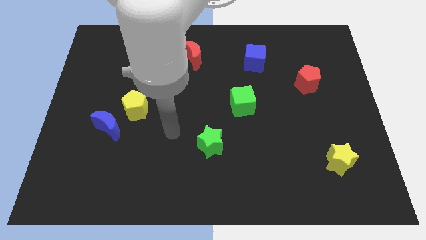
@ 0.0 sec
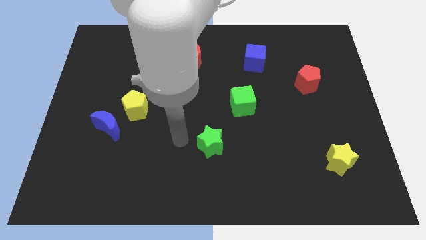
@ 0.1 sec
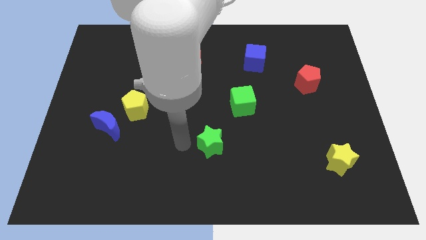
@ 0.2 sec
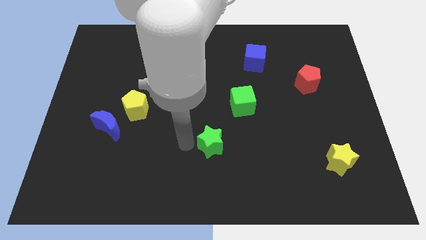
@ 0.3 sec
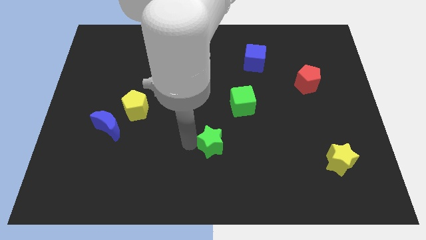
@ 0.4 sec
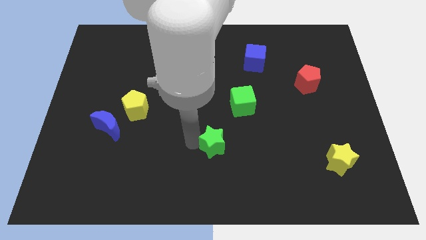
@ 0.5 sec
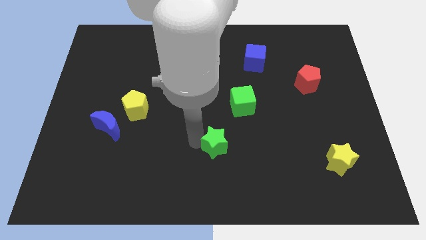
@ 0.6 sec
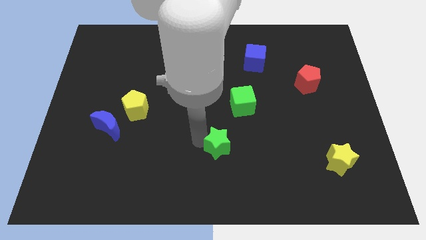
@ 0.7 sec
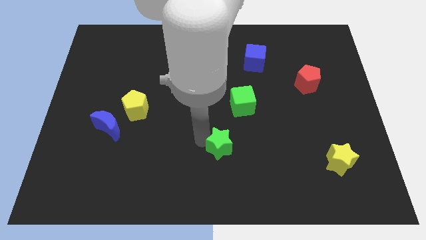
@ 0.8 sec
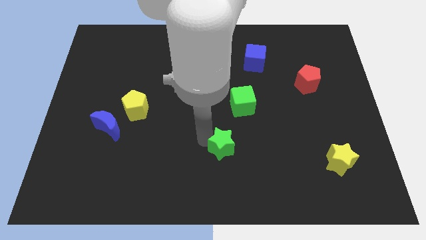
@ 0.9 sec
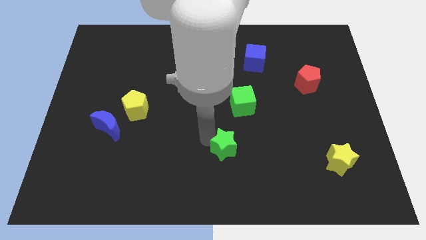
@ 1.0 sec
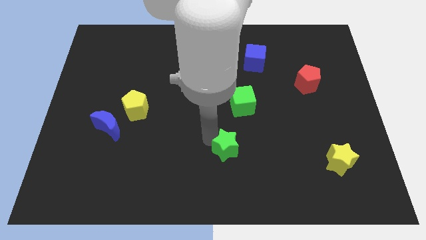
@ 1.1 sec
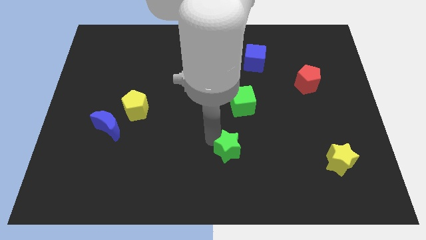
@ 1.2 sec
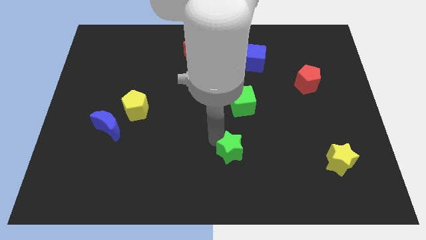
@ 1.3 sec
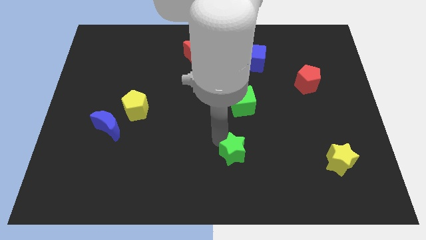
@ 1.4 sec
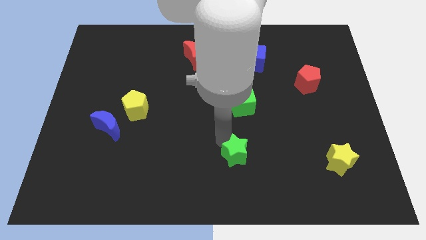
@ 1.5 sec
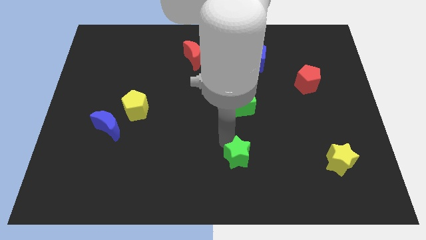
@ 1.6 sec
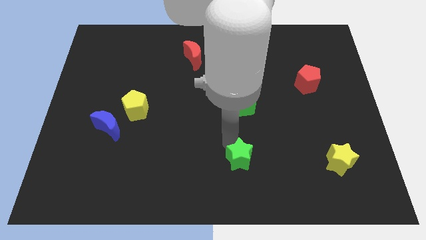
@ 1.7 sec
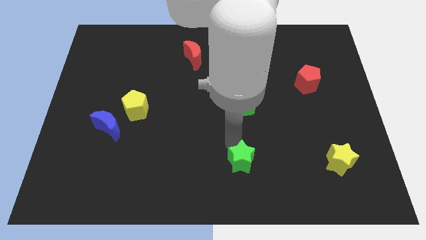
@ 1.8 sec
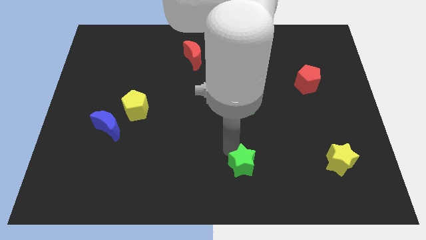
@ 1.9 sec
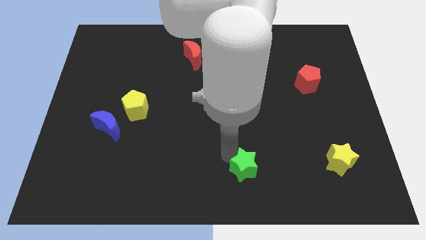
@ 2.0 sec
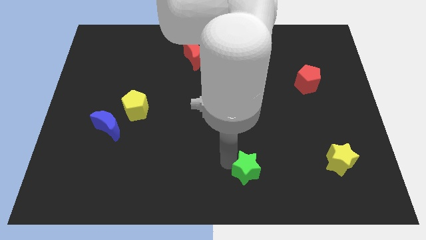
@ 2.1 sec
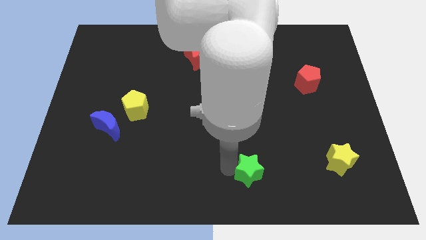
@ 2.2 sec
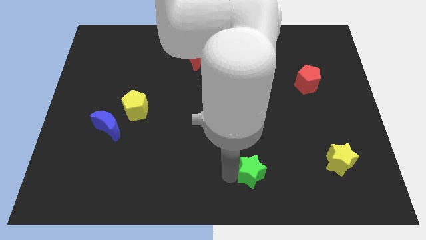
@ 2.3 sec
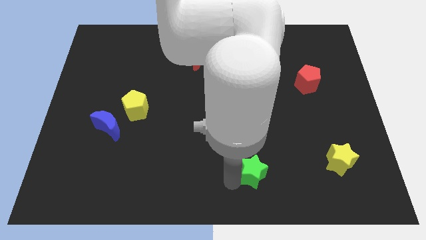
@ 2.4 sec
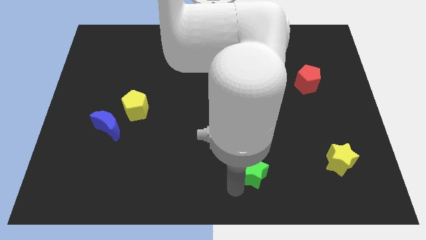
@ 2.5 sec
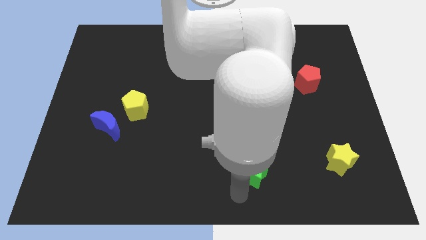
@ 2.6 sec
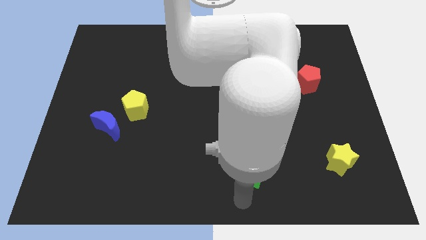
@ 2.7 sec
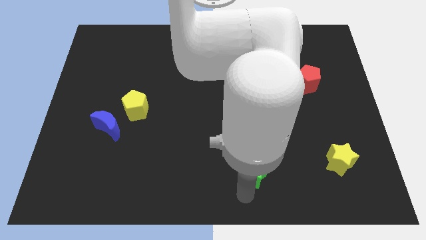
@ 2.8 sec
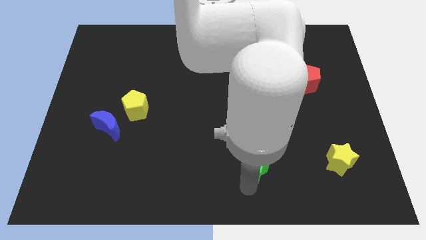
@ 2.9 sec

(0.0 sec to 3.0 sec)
push the green star somewhat to the right

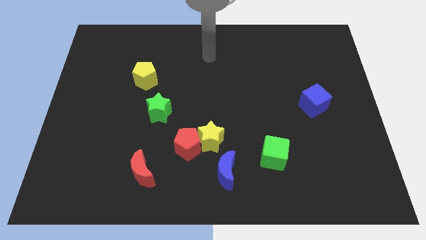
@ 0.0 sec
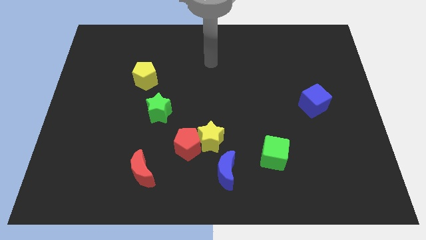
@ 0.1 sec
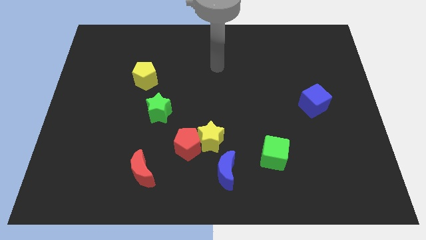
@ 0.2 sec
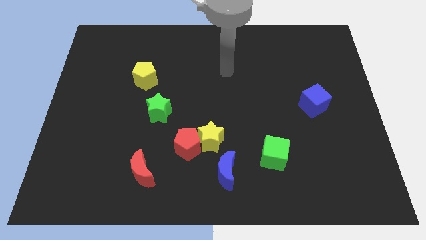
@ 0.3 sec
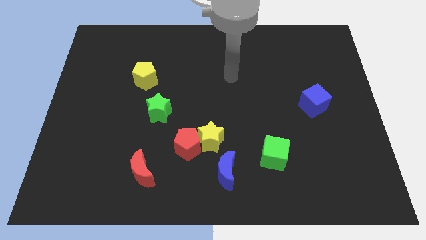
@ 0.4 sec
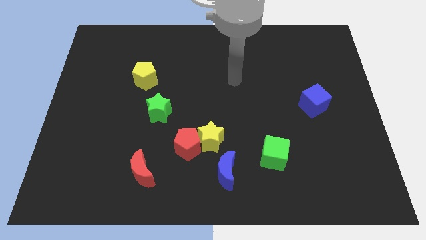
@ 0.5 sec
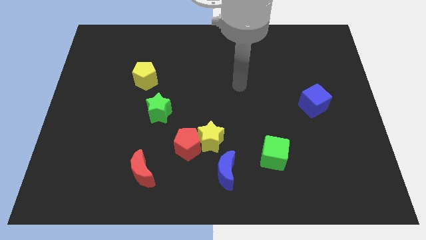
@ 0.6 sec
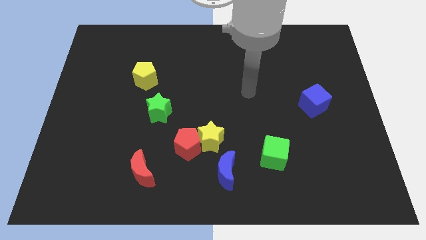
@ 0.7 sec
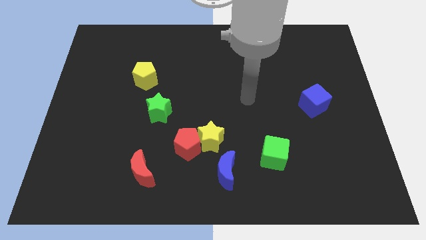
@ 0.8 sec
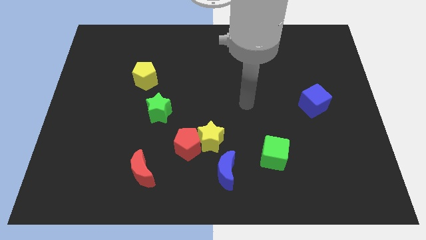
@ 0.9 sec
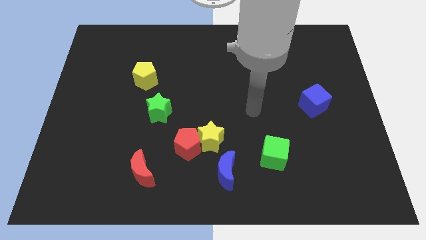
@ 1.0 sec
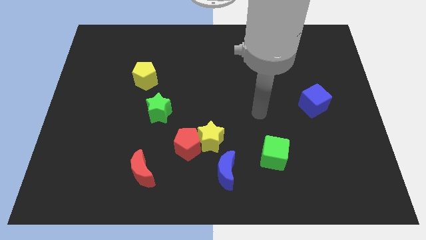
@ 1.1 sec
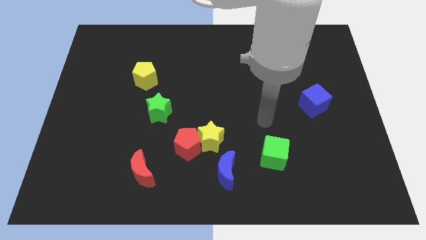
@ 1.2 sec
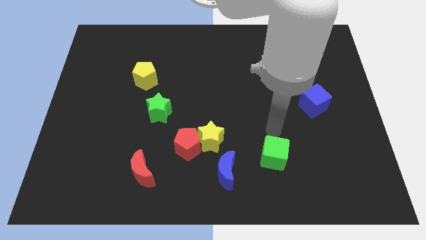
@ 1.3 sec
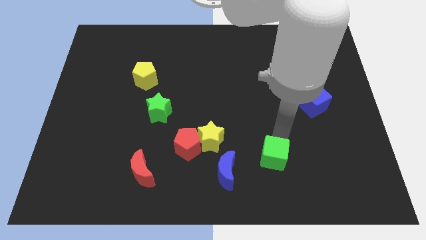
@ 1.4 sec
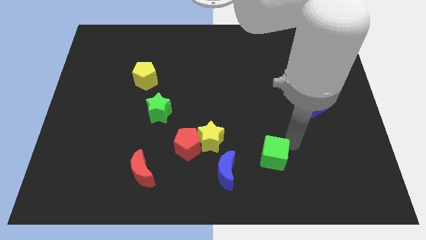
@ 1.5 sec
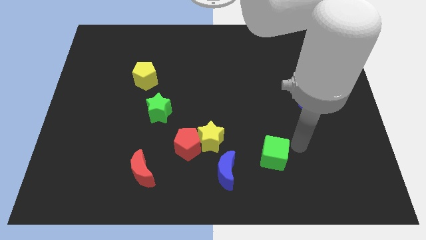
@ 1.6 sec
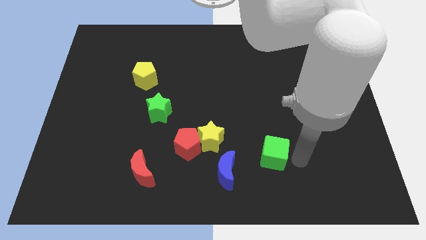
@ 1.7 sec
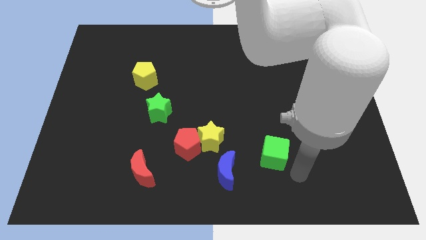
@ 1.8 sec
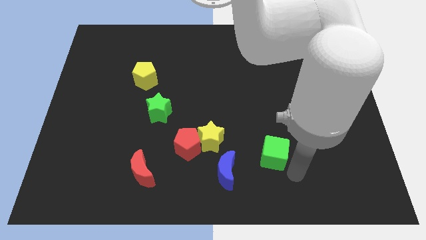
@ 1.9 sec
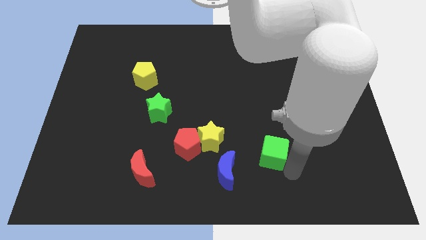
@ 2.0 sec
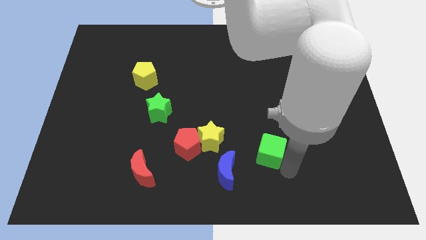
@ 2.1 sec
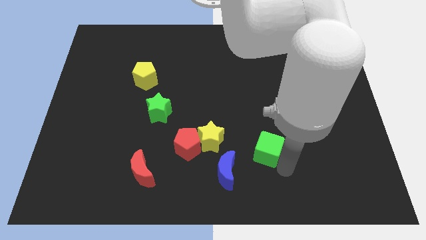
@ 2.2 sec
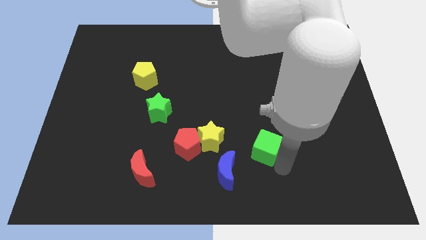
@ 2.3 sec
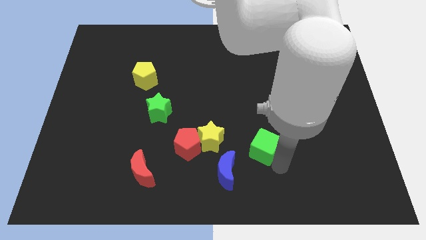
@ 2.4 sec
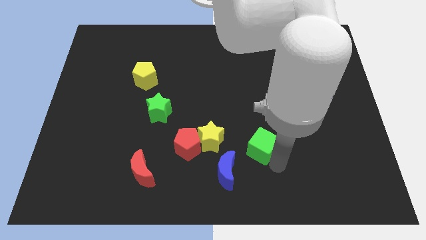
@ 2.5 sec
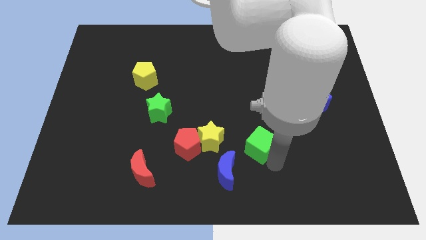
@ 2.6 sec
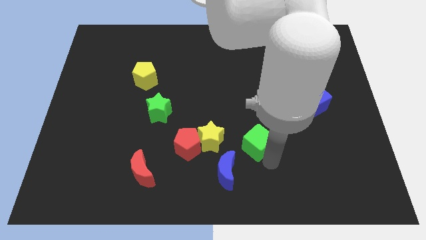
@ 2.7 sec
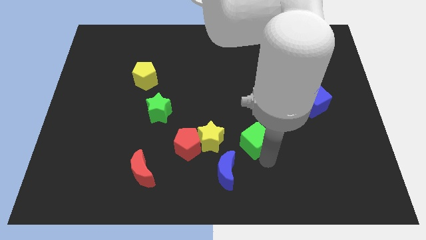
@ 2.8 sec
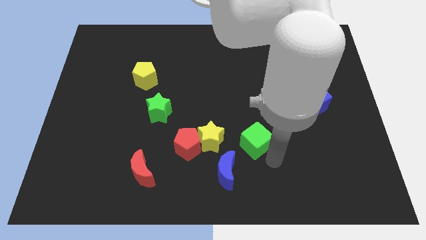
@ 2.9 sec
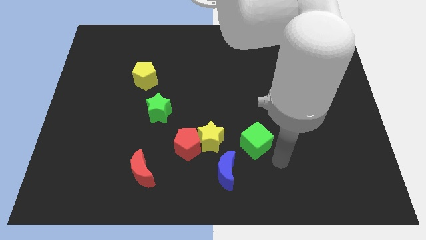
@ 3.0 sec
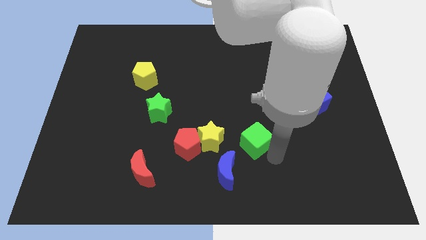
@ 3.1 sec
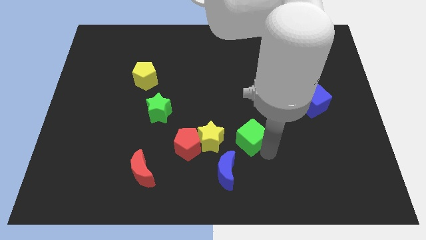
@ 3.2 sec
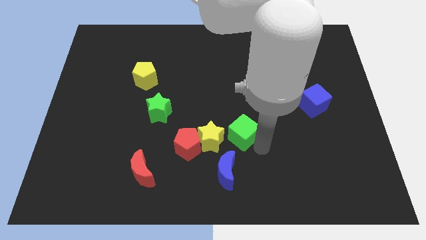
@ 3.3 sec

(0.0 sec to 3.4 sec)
slightly push the green cube up and left diagonally

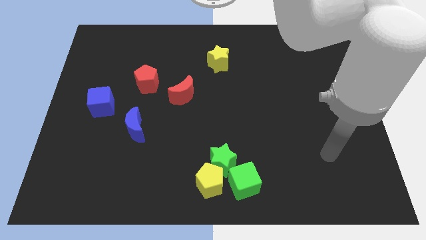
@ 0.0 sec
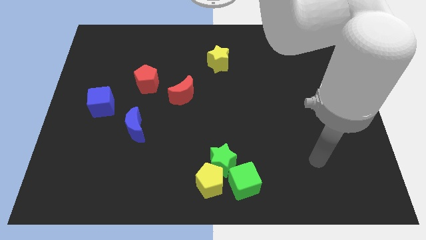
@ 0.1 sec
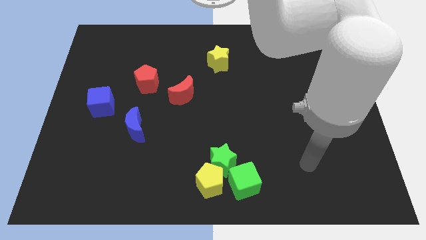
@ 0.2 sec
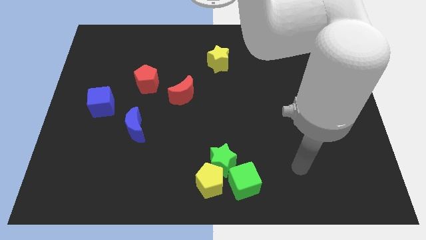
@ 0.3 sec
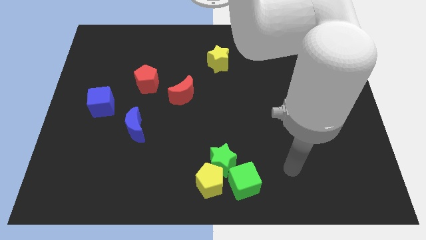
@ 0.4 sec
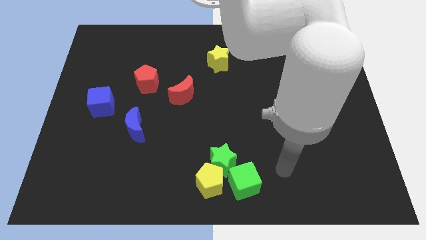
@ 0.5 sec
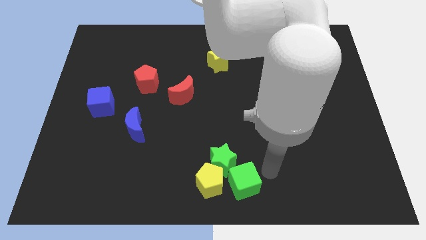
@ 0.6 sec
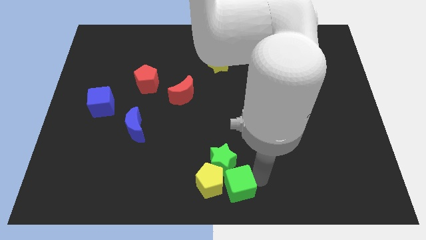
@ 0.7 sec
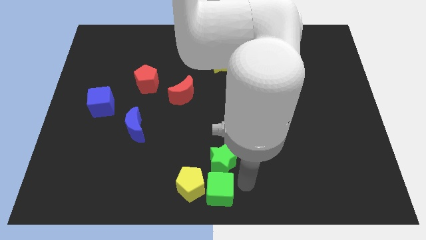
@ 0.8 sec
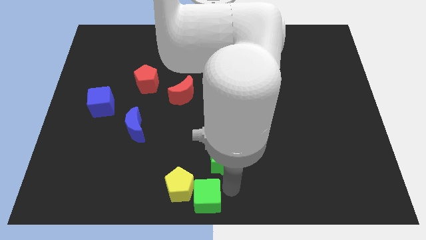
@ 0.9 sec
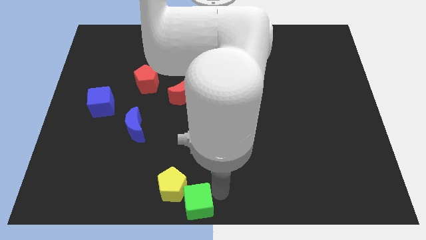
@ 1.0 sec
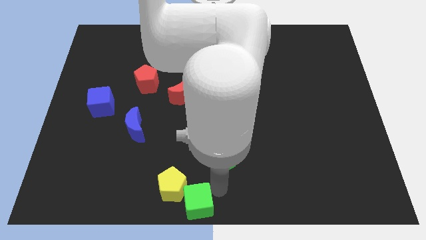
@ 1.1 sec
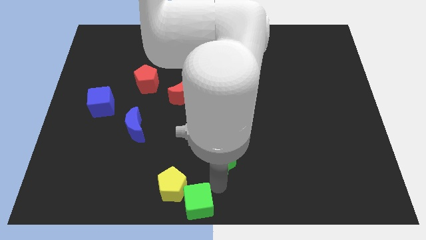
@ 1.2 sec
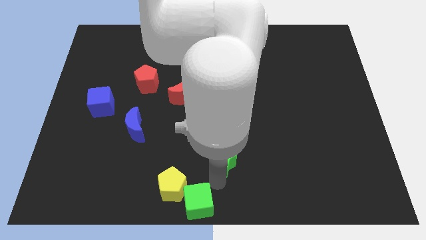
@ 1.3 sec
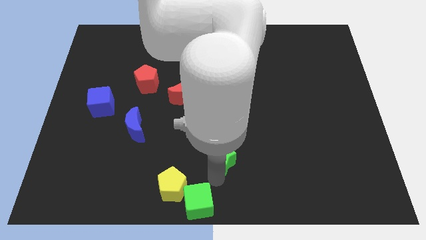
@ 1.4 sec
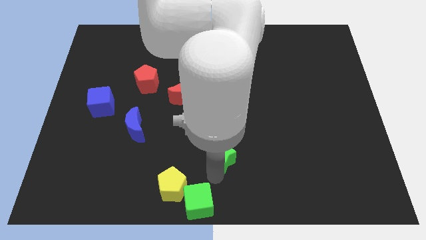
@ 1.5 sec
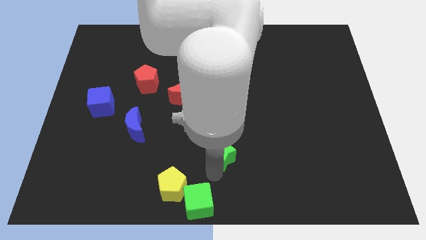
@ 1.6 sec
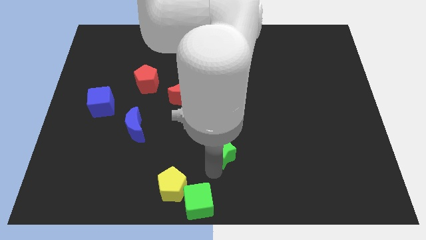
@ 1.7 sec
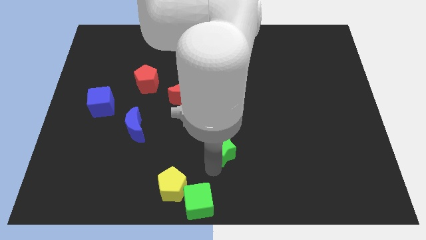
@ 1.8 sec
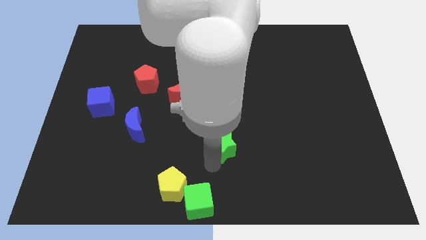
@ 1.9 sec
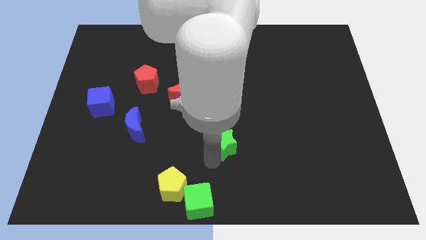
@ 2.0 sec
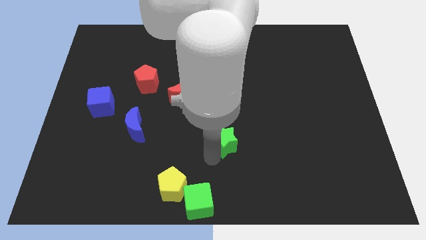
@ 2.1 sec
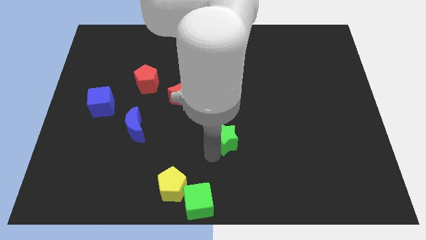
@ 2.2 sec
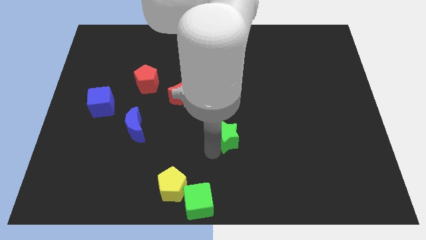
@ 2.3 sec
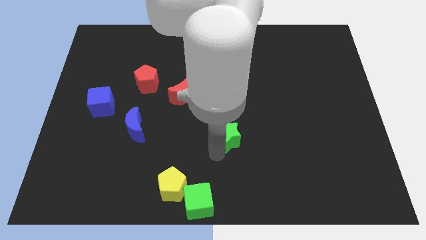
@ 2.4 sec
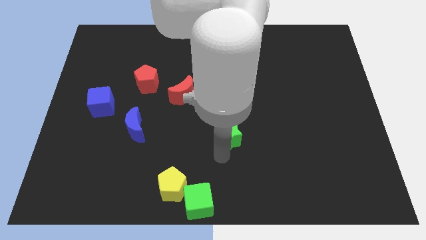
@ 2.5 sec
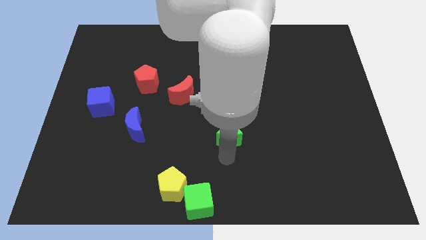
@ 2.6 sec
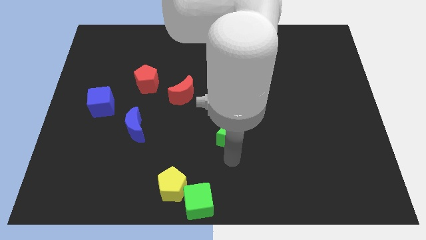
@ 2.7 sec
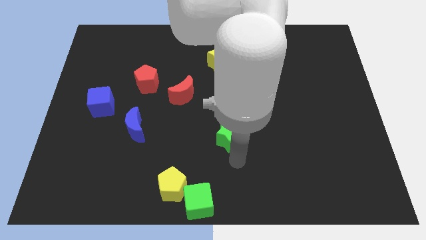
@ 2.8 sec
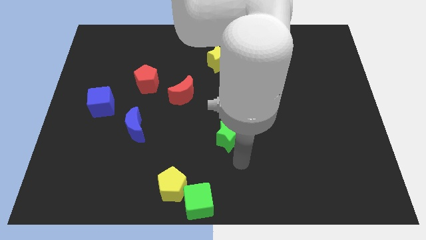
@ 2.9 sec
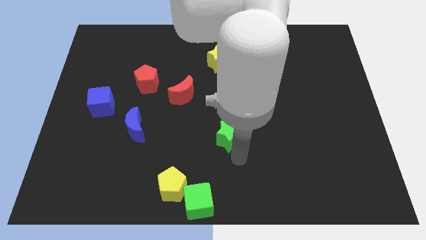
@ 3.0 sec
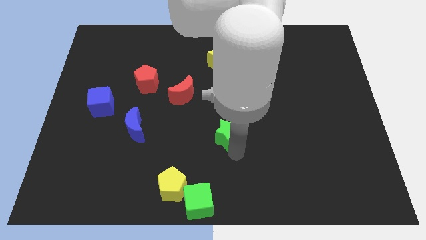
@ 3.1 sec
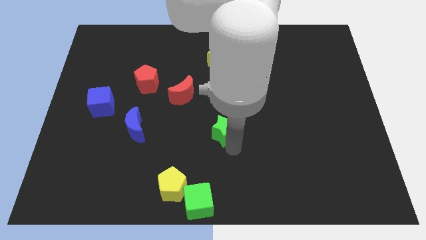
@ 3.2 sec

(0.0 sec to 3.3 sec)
move the green star a bit upwards
